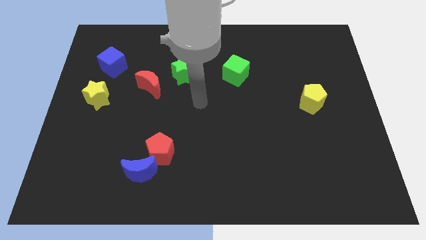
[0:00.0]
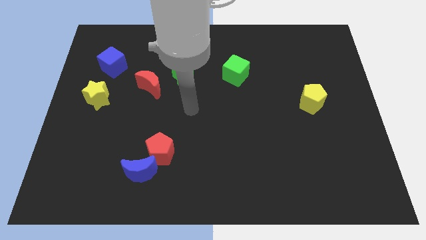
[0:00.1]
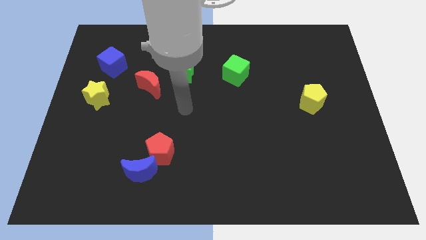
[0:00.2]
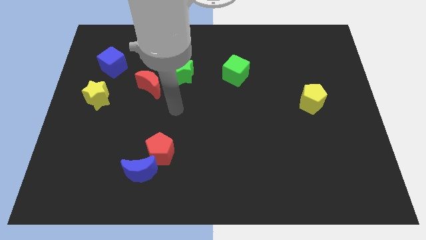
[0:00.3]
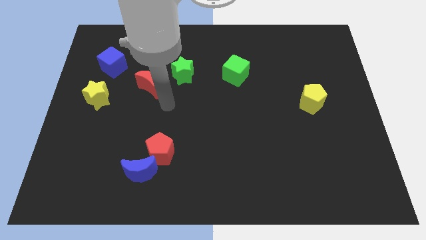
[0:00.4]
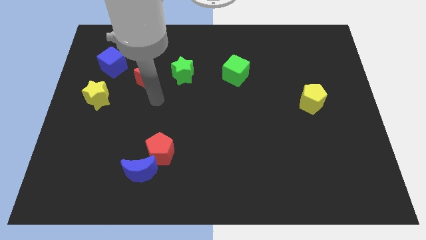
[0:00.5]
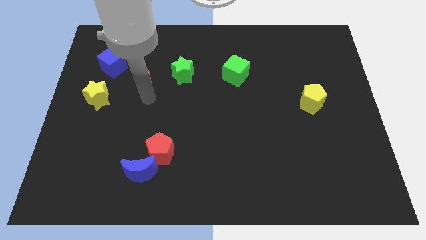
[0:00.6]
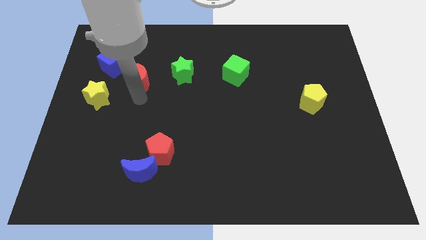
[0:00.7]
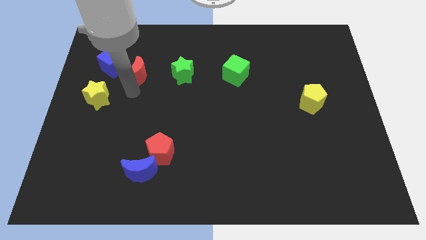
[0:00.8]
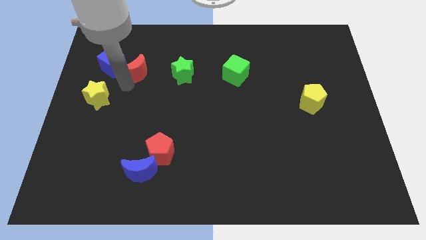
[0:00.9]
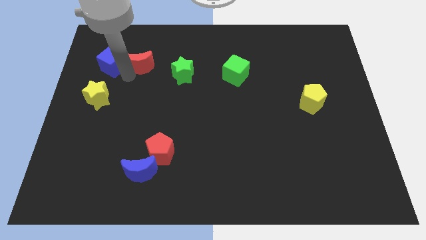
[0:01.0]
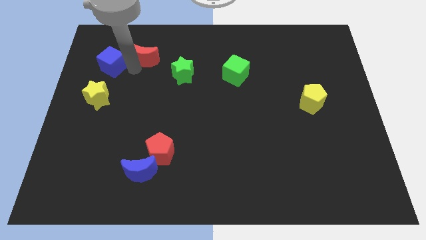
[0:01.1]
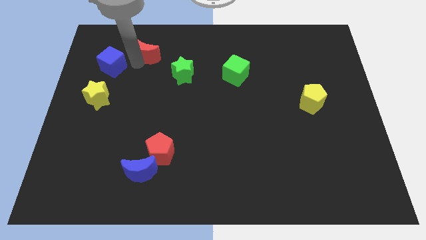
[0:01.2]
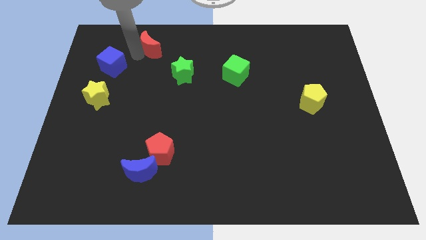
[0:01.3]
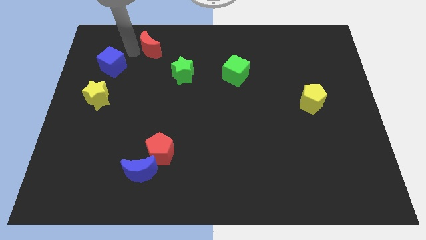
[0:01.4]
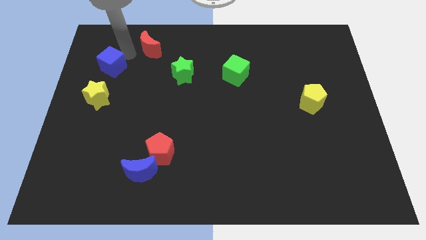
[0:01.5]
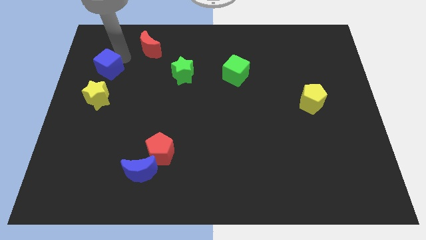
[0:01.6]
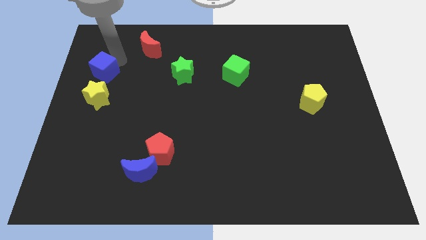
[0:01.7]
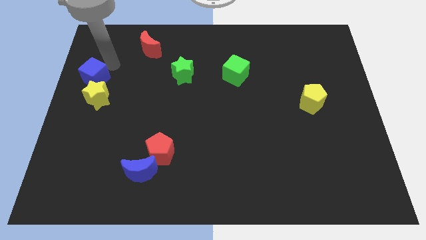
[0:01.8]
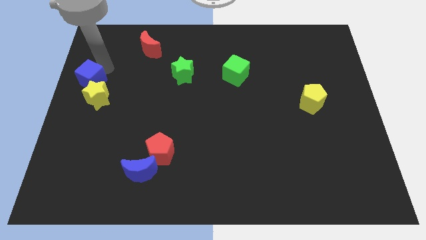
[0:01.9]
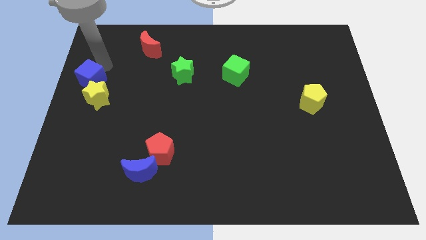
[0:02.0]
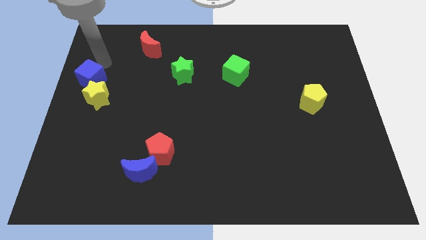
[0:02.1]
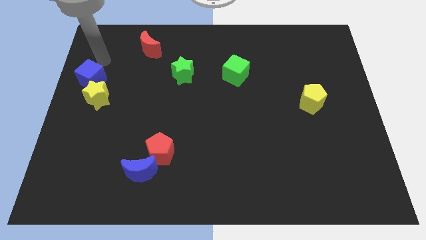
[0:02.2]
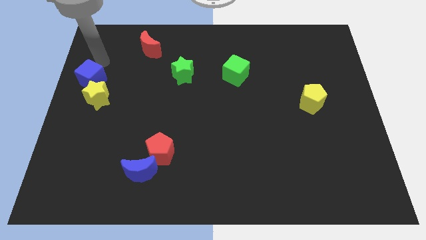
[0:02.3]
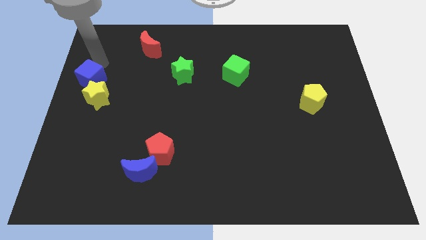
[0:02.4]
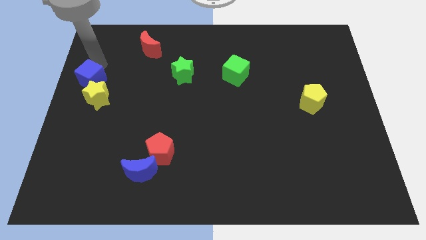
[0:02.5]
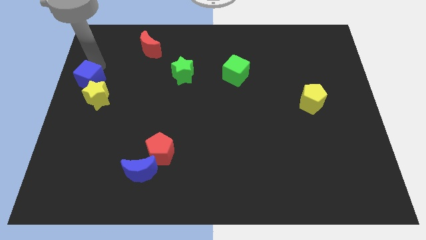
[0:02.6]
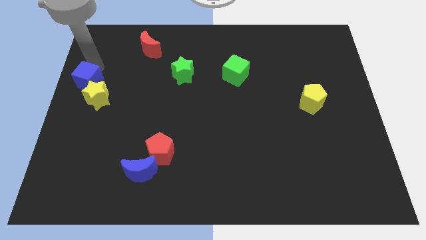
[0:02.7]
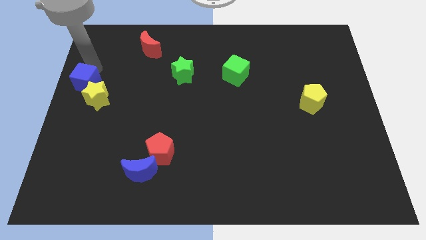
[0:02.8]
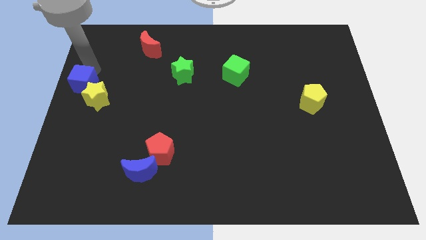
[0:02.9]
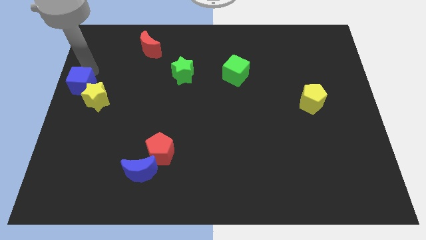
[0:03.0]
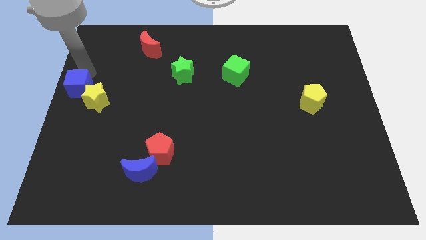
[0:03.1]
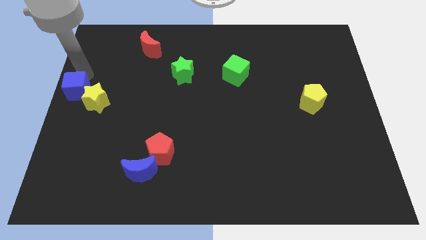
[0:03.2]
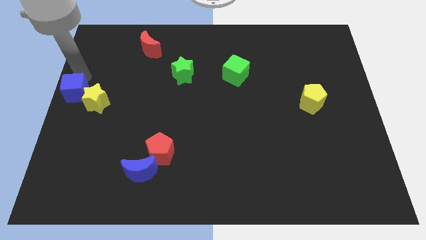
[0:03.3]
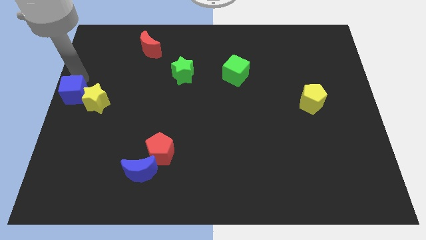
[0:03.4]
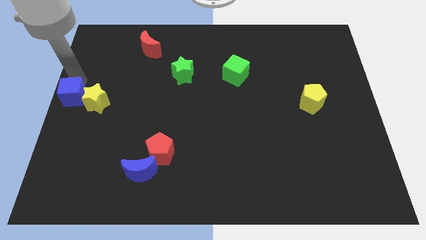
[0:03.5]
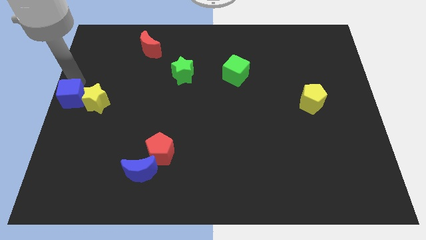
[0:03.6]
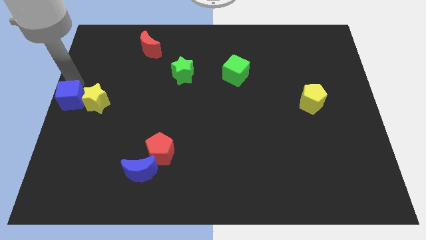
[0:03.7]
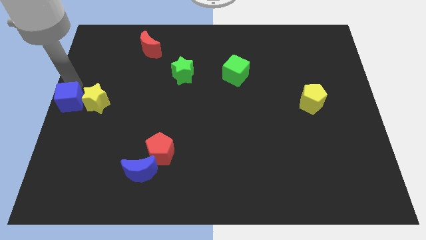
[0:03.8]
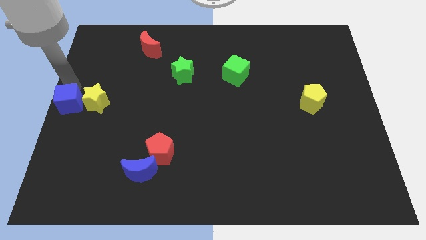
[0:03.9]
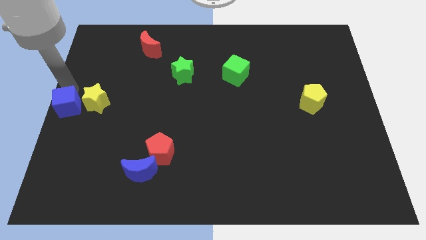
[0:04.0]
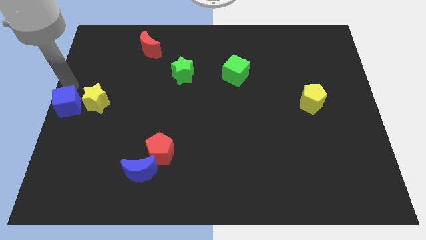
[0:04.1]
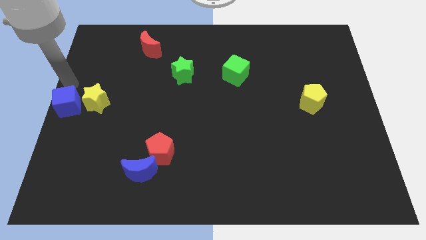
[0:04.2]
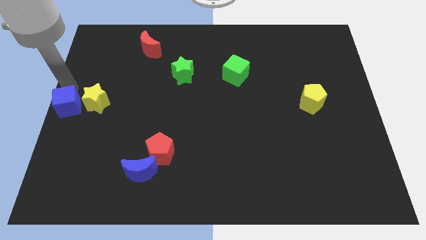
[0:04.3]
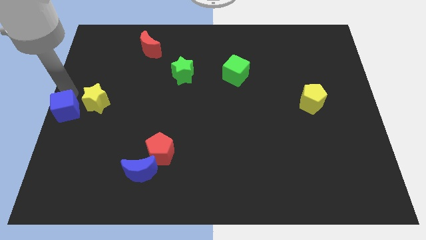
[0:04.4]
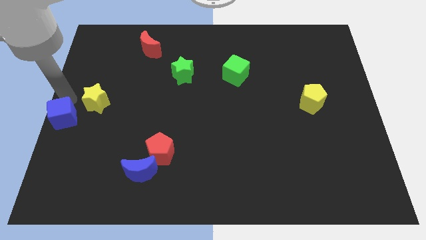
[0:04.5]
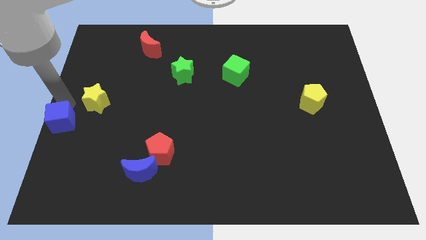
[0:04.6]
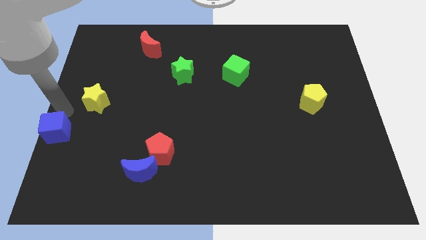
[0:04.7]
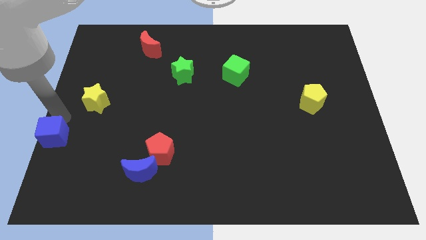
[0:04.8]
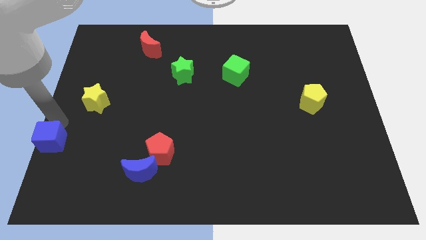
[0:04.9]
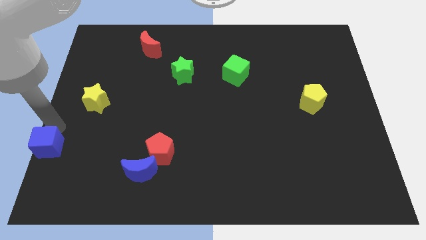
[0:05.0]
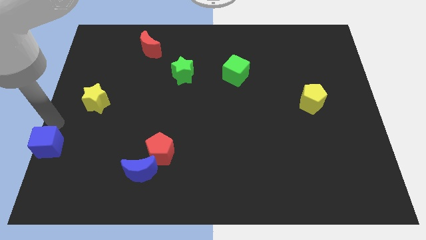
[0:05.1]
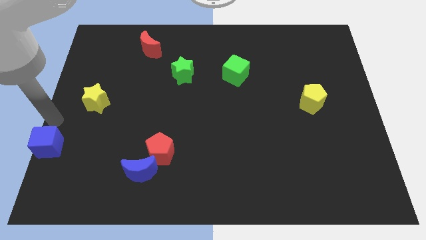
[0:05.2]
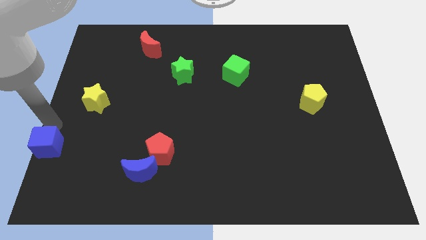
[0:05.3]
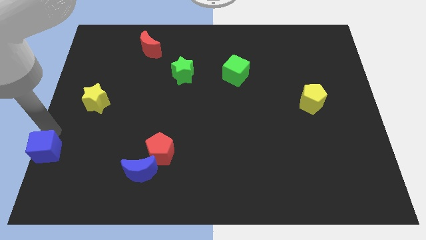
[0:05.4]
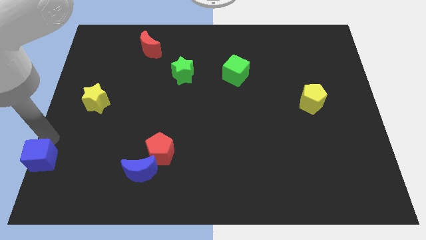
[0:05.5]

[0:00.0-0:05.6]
put the blue cube to the bottom left of the board

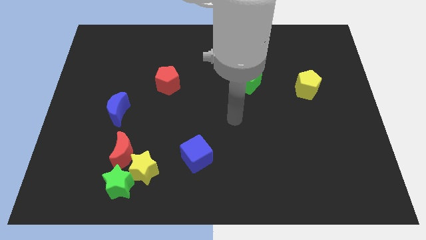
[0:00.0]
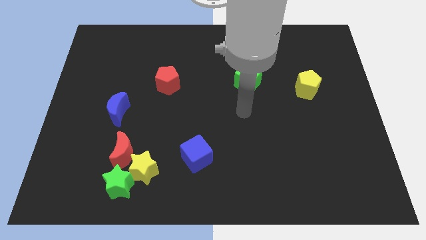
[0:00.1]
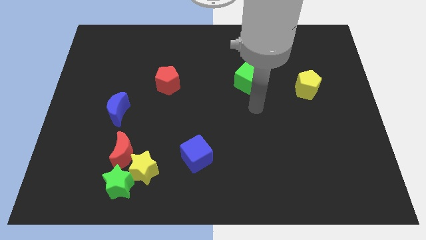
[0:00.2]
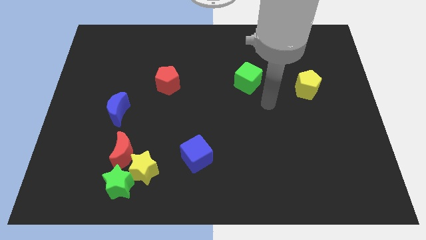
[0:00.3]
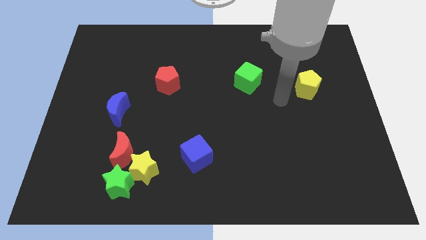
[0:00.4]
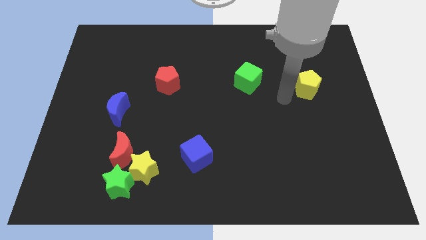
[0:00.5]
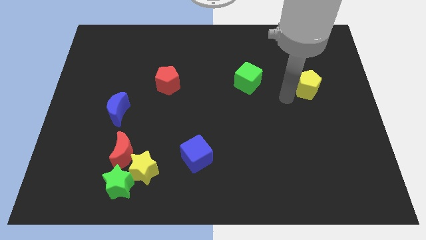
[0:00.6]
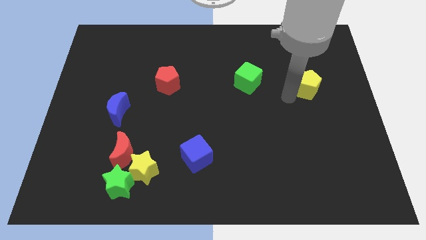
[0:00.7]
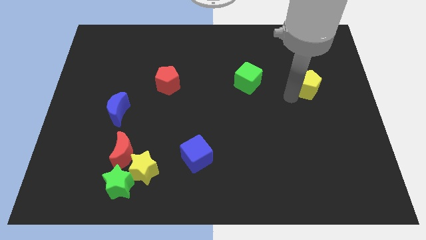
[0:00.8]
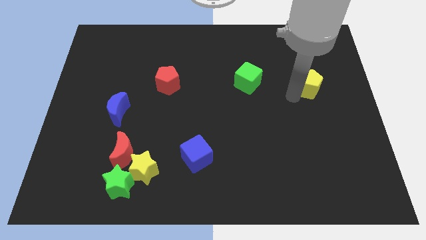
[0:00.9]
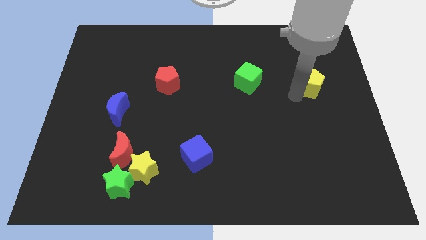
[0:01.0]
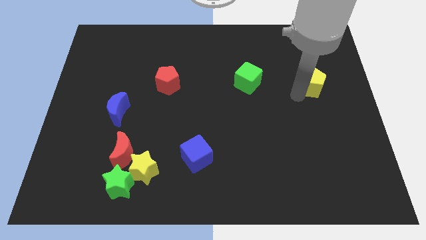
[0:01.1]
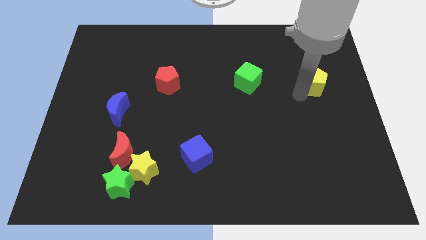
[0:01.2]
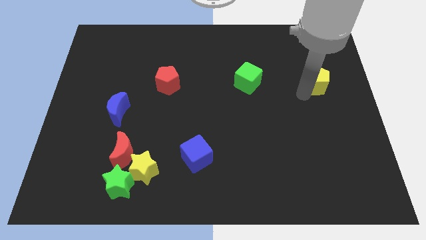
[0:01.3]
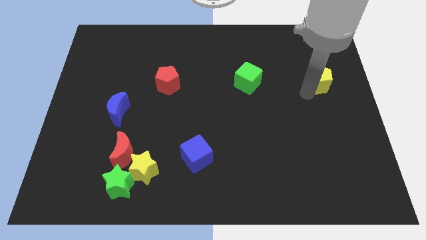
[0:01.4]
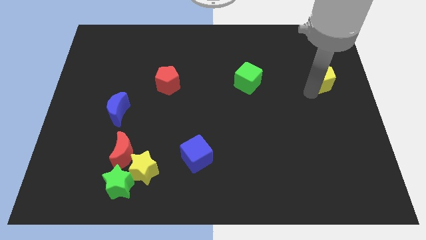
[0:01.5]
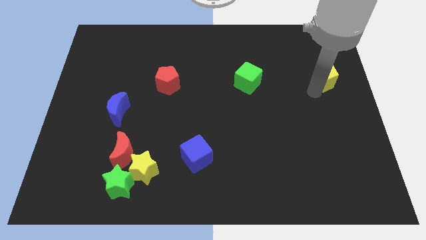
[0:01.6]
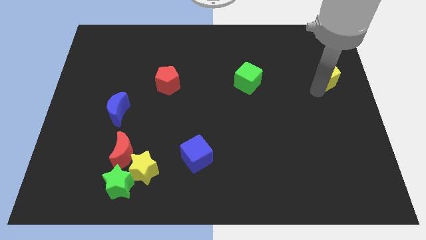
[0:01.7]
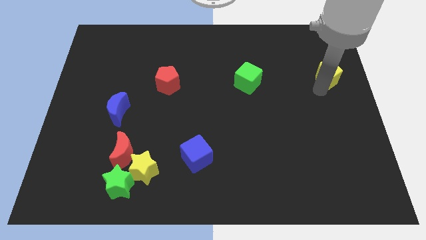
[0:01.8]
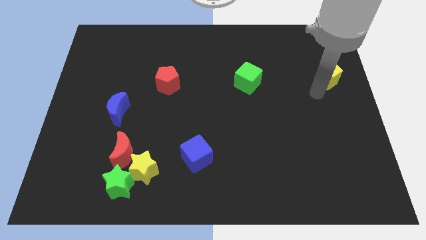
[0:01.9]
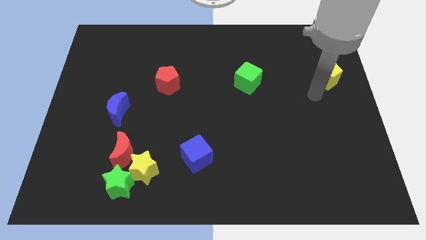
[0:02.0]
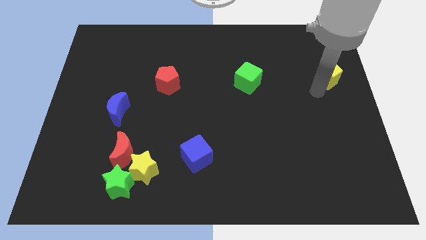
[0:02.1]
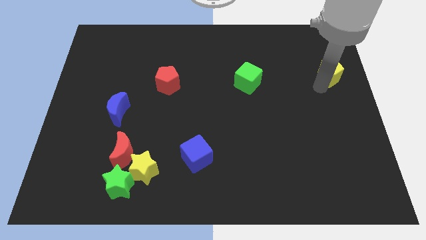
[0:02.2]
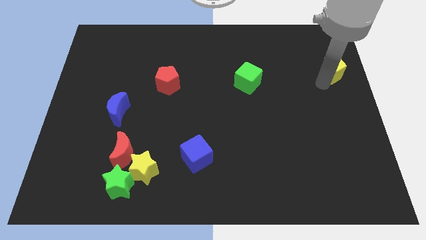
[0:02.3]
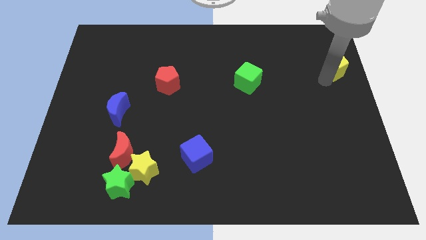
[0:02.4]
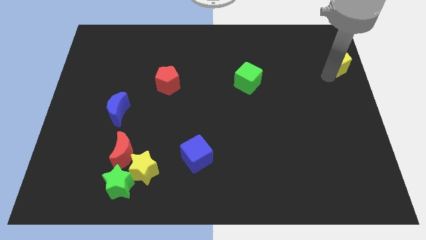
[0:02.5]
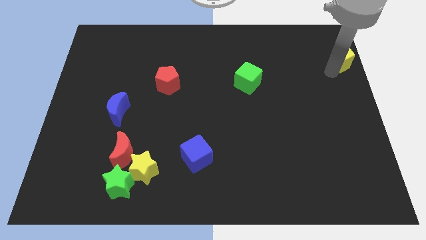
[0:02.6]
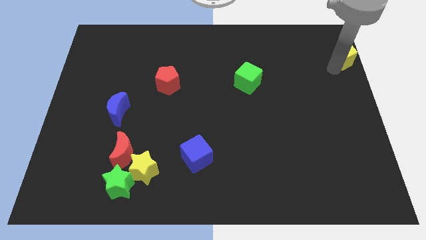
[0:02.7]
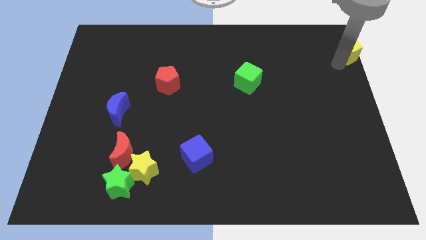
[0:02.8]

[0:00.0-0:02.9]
move the yellow pentagon to the top right of the board
